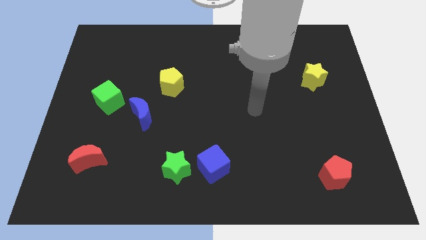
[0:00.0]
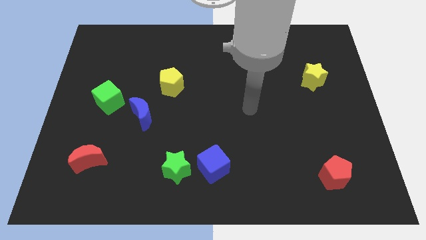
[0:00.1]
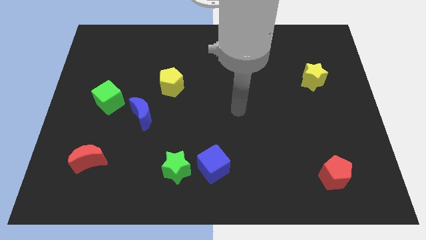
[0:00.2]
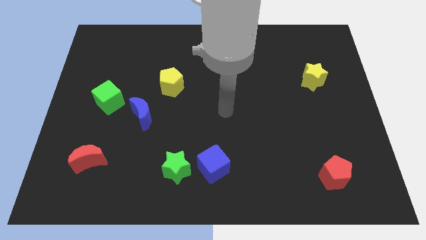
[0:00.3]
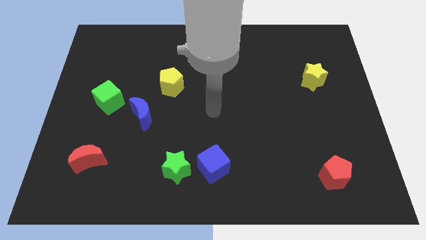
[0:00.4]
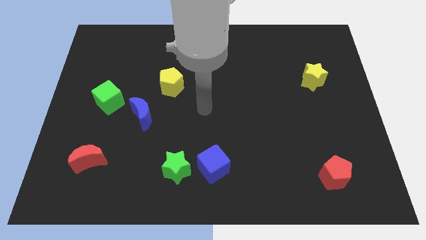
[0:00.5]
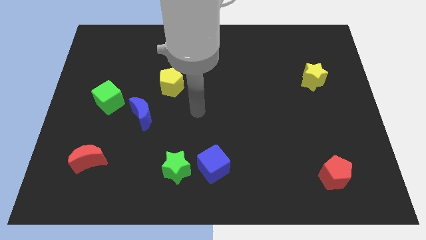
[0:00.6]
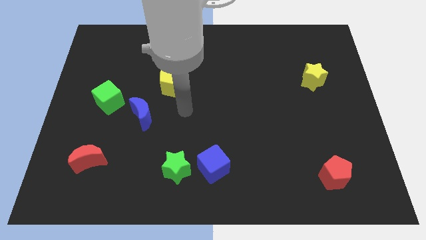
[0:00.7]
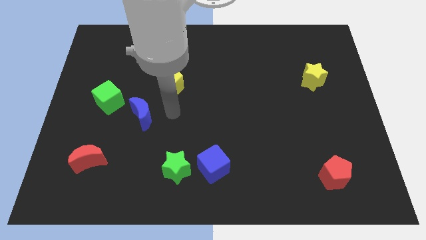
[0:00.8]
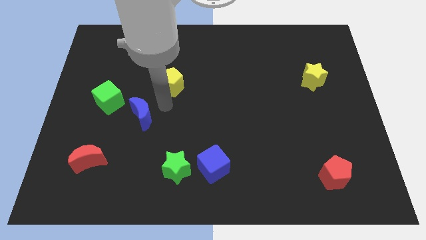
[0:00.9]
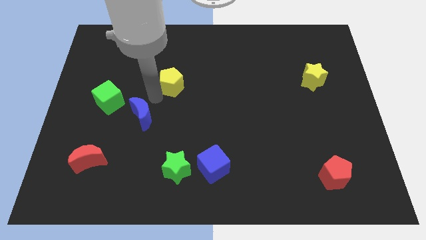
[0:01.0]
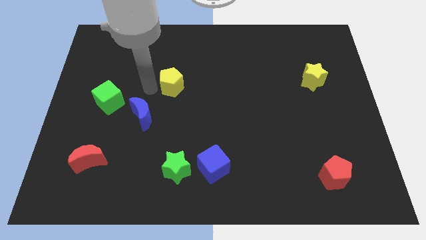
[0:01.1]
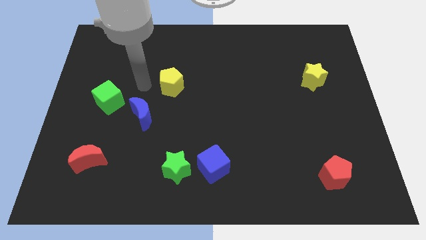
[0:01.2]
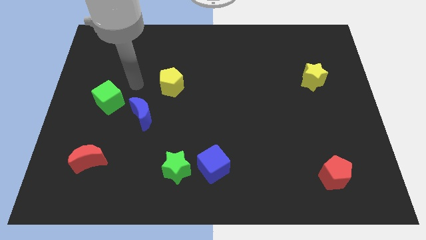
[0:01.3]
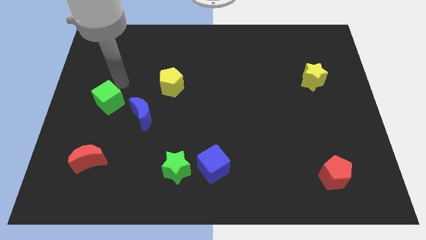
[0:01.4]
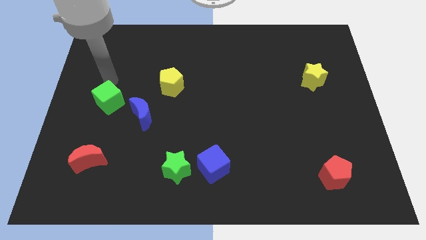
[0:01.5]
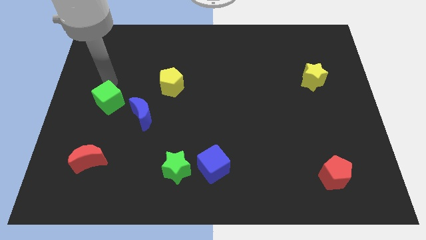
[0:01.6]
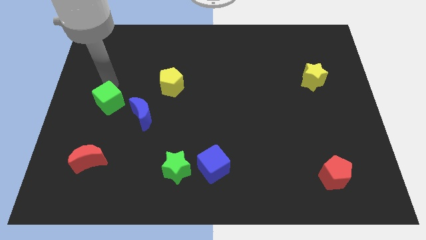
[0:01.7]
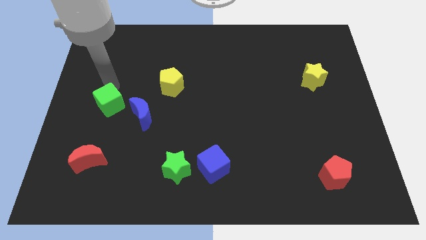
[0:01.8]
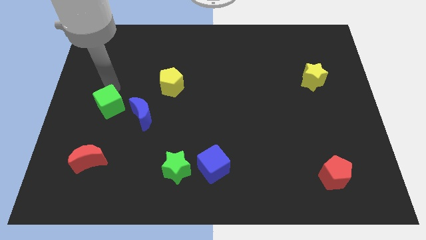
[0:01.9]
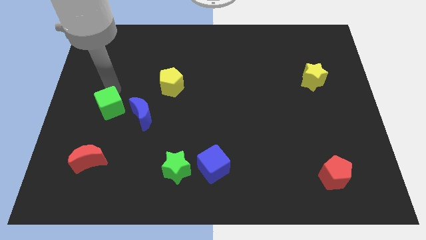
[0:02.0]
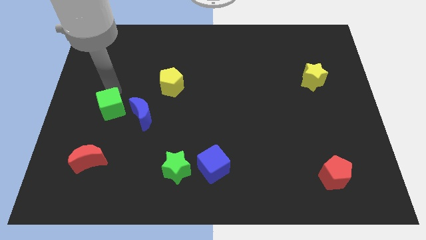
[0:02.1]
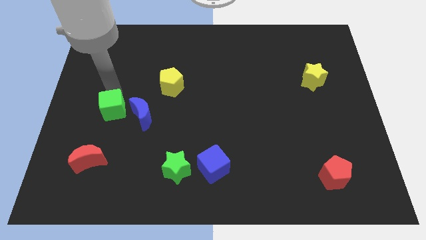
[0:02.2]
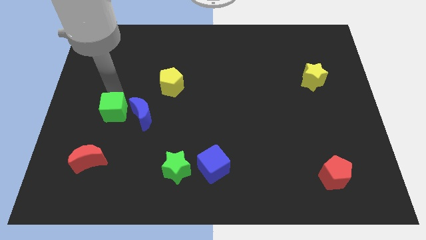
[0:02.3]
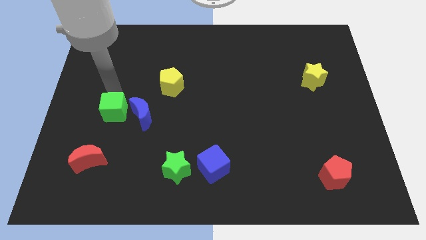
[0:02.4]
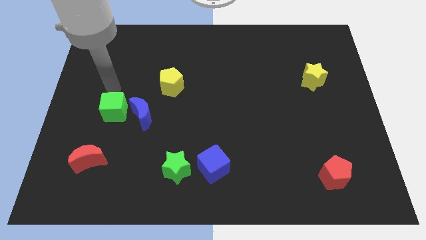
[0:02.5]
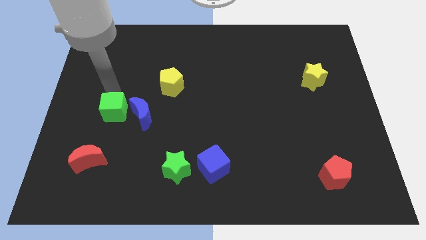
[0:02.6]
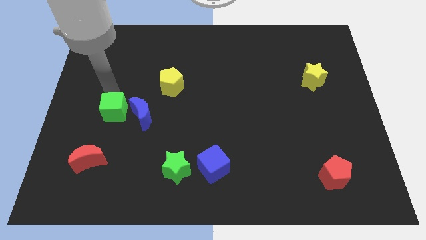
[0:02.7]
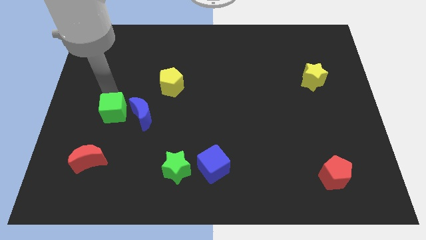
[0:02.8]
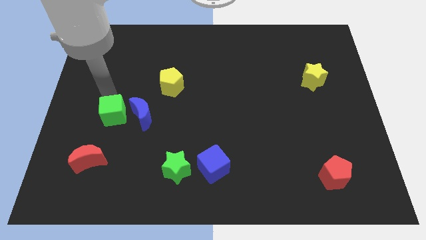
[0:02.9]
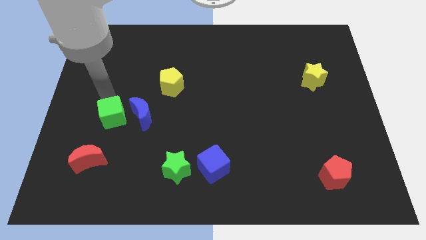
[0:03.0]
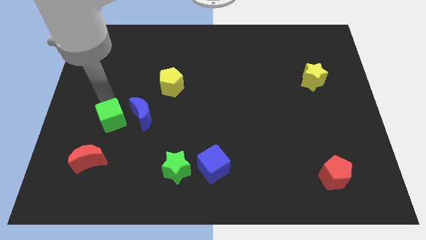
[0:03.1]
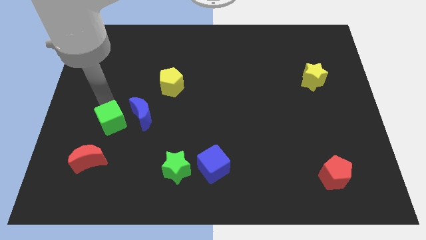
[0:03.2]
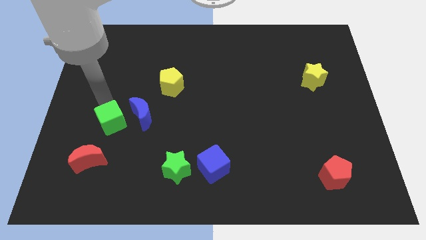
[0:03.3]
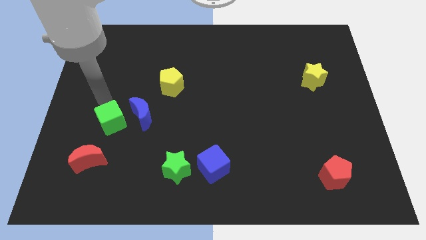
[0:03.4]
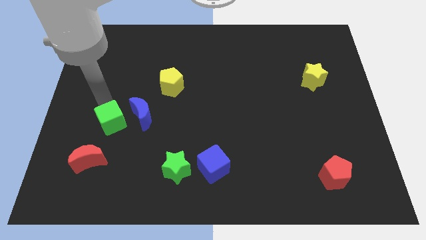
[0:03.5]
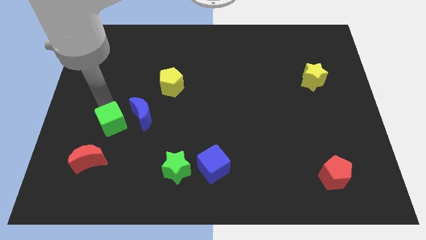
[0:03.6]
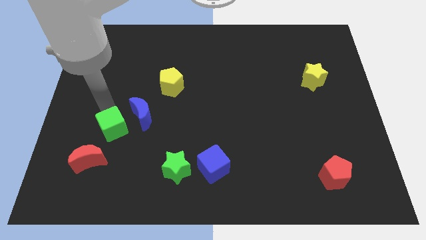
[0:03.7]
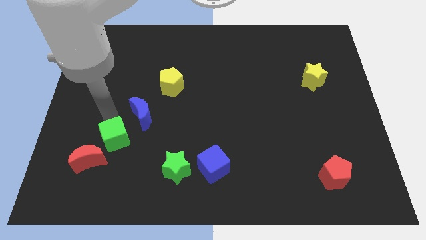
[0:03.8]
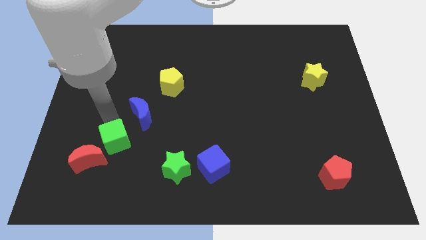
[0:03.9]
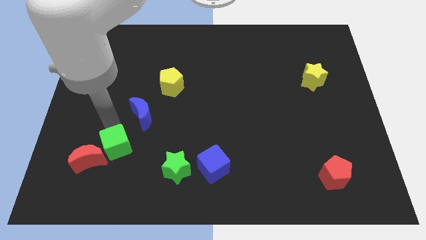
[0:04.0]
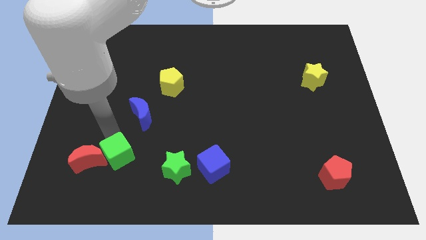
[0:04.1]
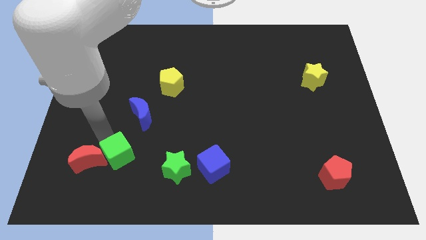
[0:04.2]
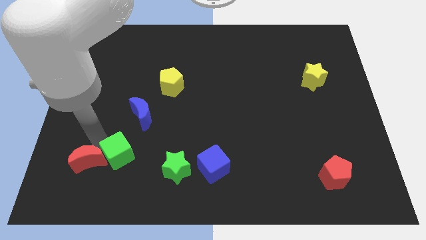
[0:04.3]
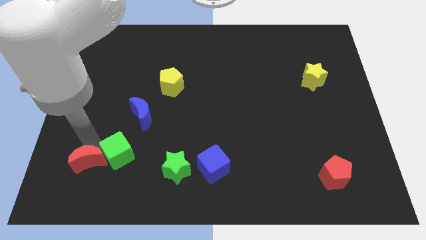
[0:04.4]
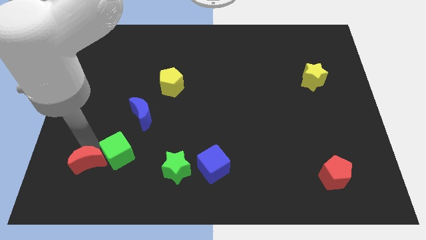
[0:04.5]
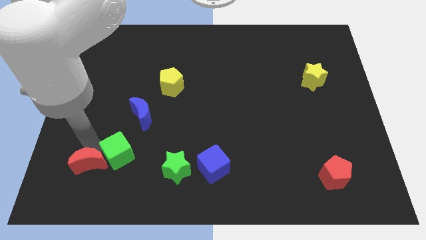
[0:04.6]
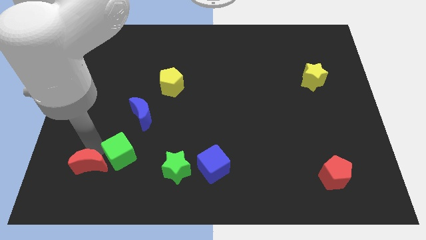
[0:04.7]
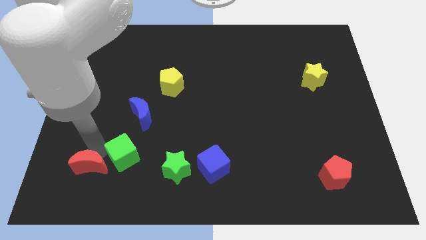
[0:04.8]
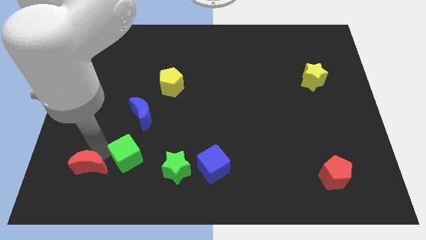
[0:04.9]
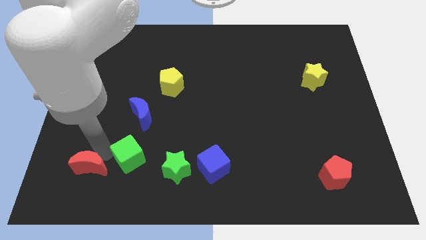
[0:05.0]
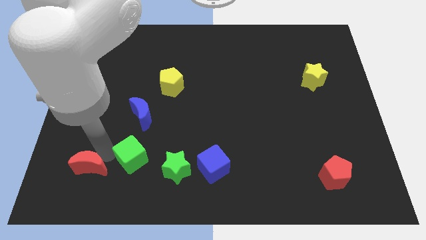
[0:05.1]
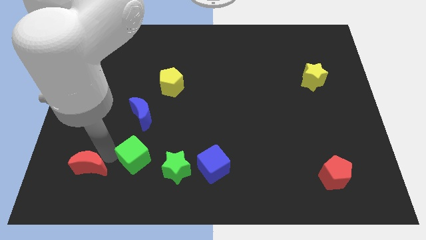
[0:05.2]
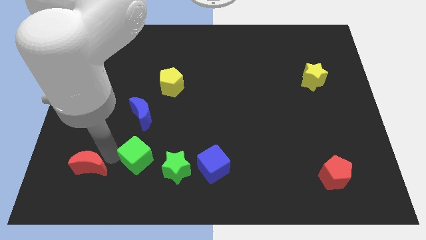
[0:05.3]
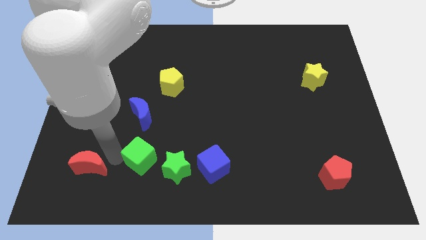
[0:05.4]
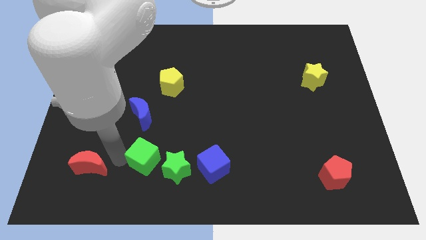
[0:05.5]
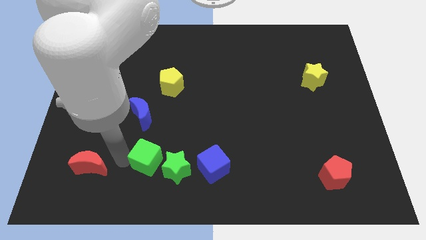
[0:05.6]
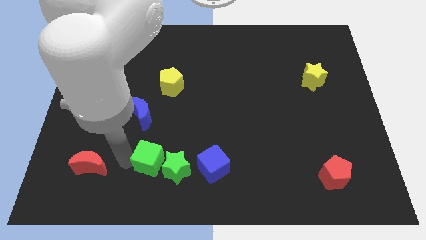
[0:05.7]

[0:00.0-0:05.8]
push the green cube to the green star
